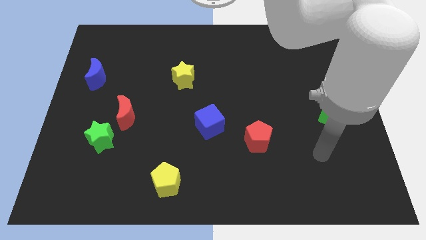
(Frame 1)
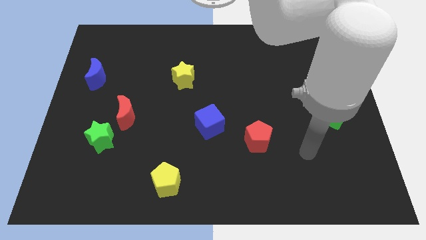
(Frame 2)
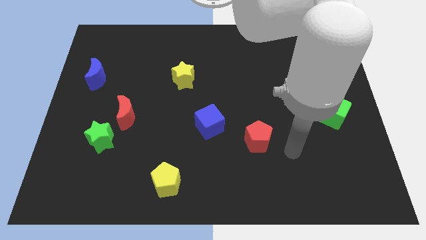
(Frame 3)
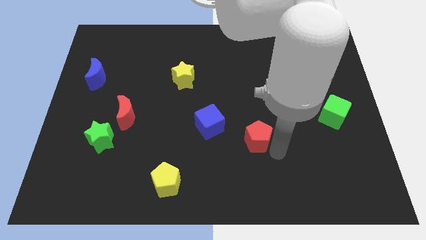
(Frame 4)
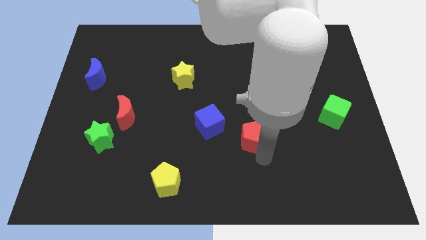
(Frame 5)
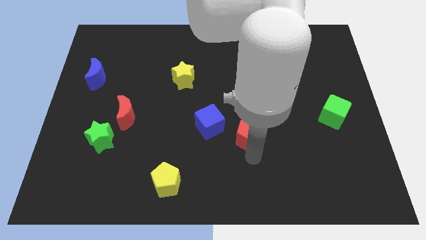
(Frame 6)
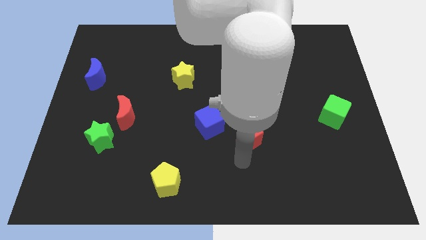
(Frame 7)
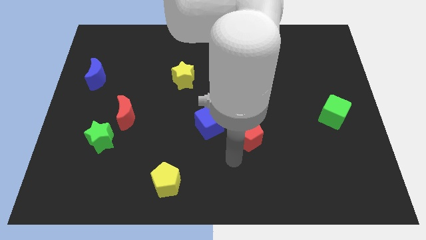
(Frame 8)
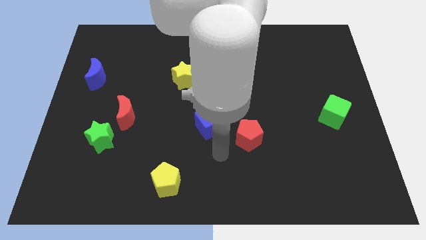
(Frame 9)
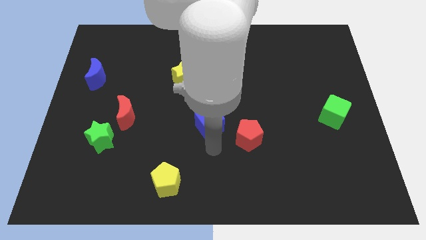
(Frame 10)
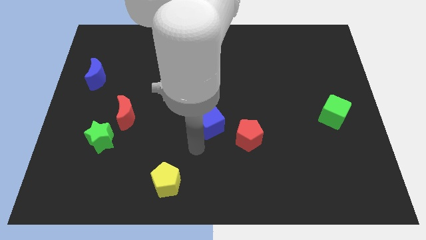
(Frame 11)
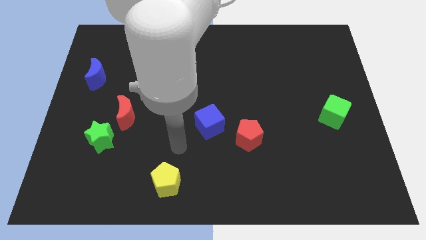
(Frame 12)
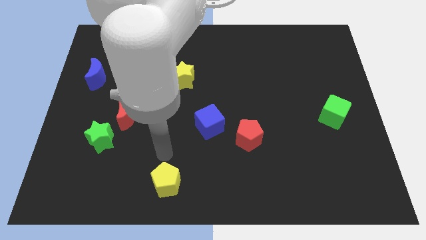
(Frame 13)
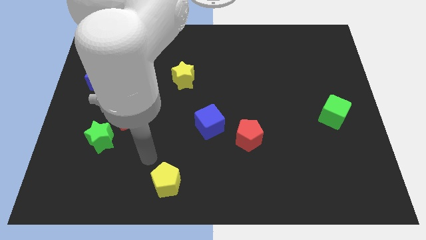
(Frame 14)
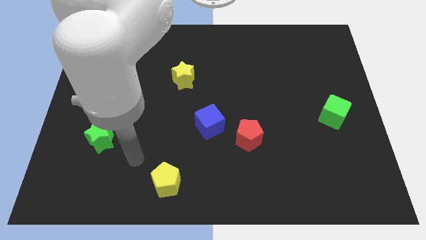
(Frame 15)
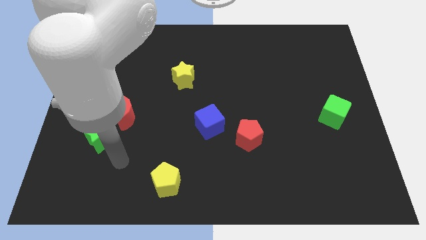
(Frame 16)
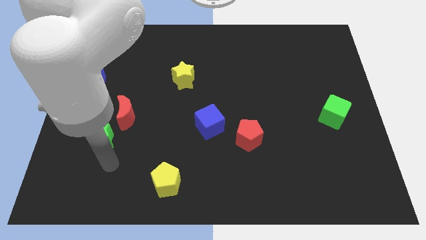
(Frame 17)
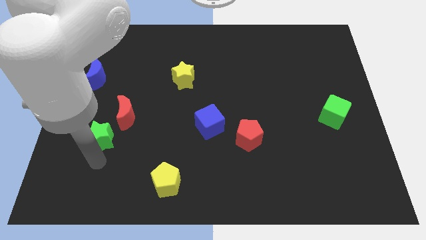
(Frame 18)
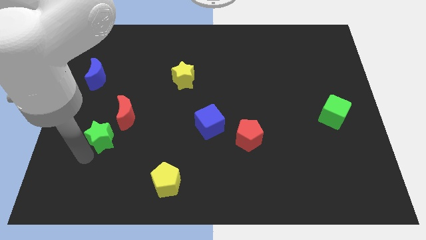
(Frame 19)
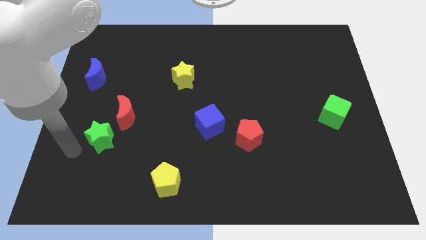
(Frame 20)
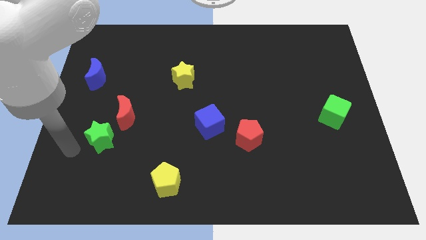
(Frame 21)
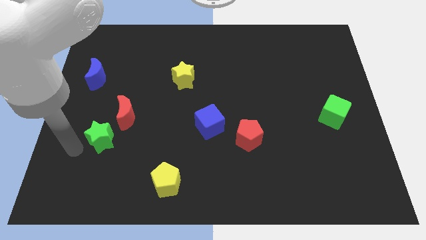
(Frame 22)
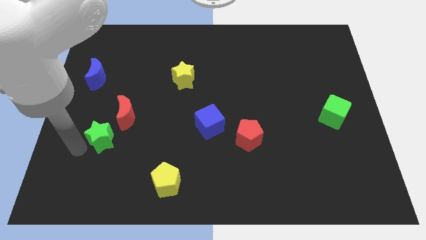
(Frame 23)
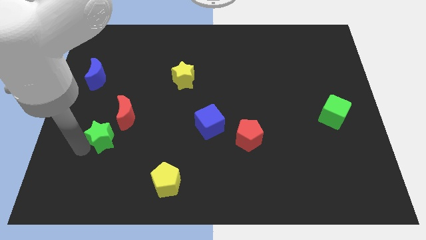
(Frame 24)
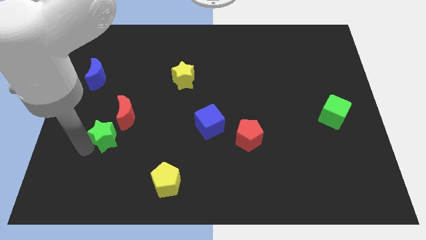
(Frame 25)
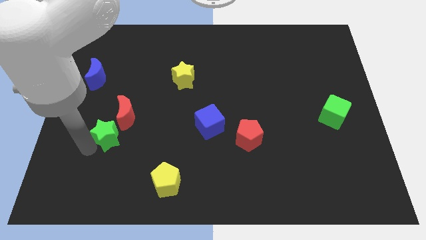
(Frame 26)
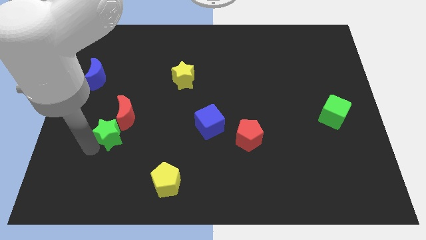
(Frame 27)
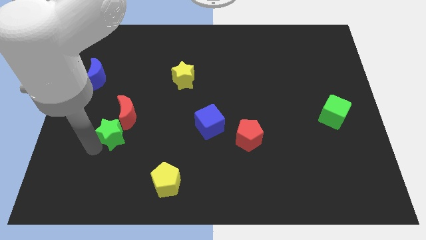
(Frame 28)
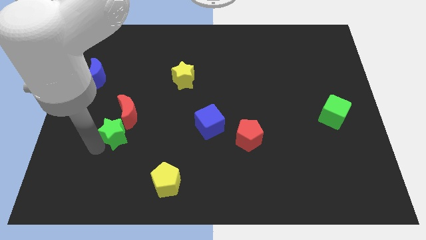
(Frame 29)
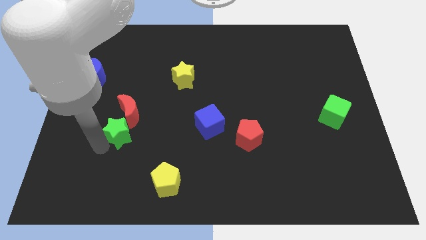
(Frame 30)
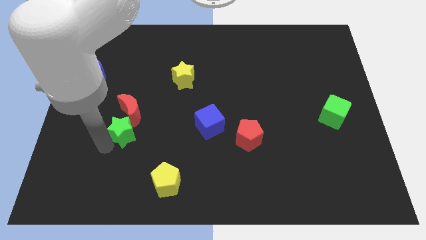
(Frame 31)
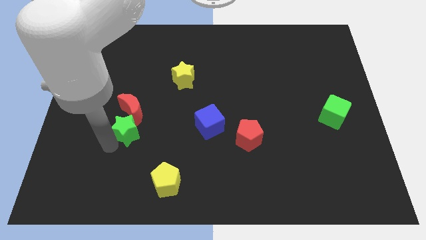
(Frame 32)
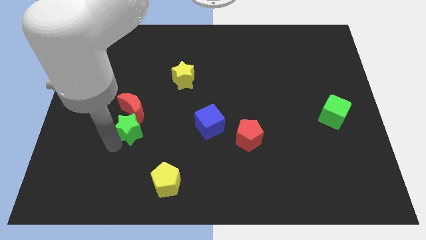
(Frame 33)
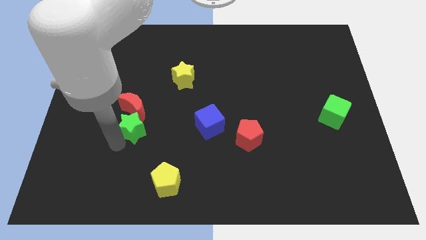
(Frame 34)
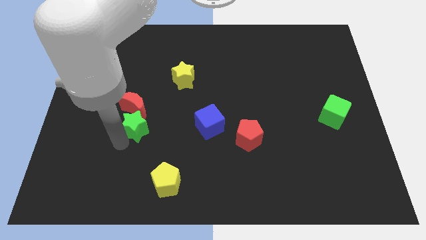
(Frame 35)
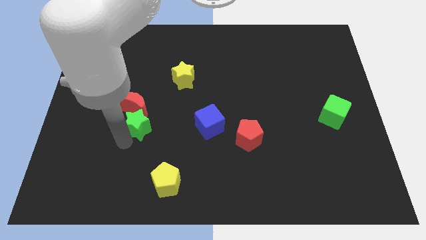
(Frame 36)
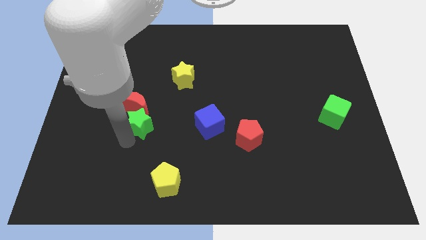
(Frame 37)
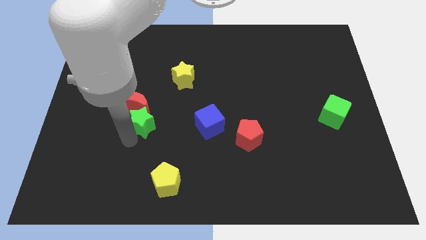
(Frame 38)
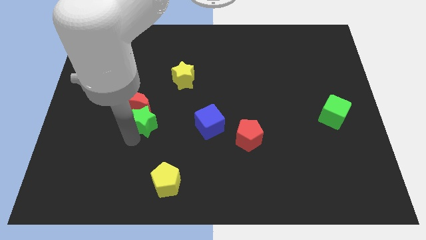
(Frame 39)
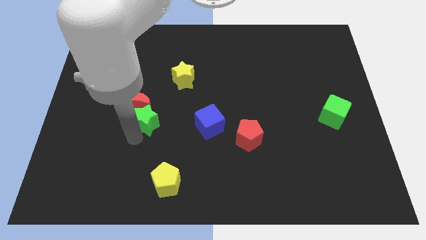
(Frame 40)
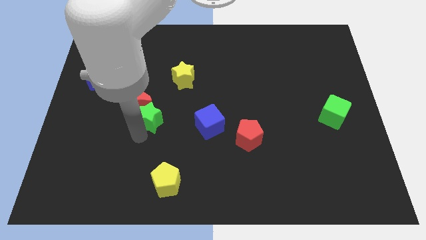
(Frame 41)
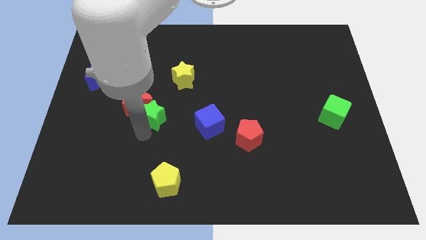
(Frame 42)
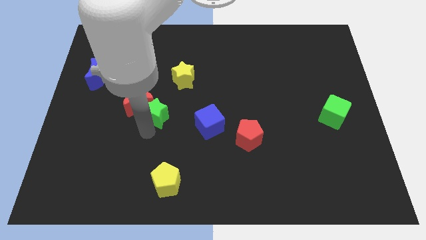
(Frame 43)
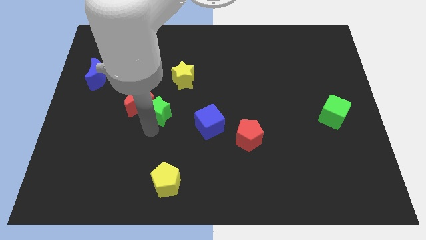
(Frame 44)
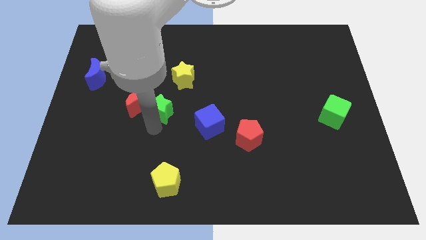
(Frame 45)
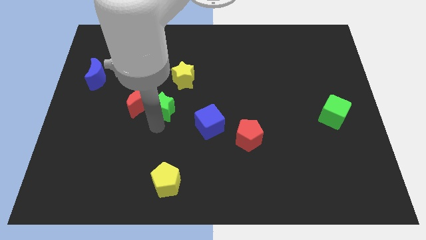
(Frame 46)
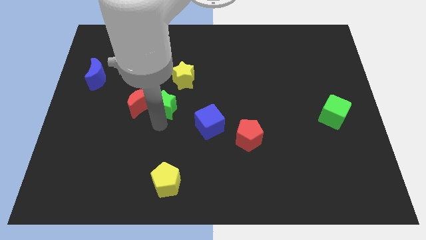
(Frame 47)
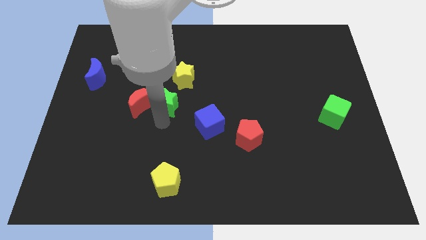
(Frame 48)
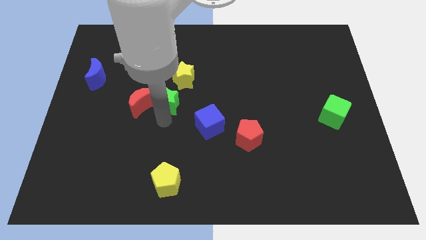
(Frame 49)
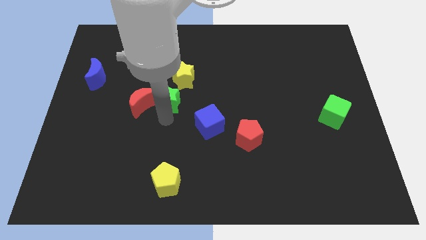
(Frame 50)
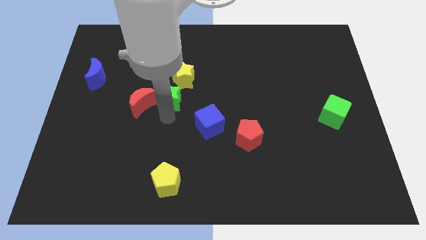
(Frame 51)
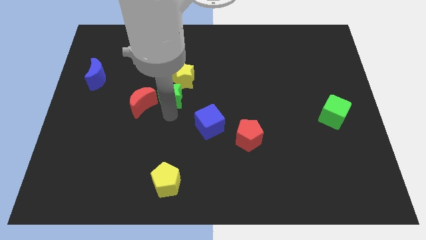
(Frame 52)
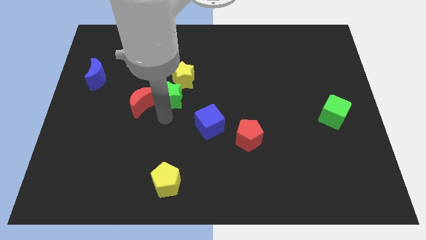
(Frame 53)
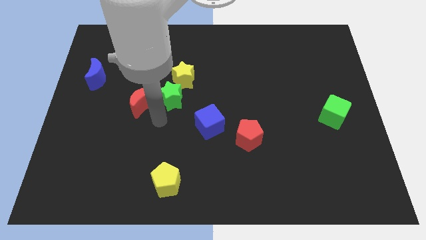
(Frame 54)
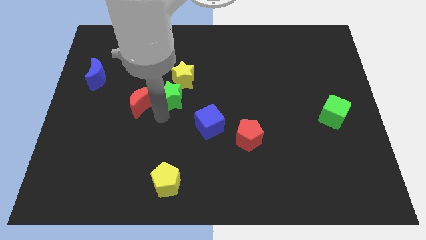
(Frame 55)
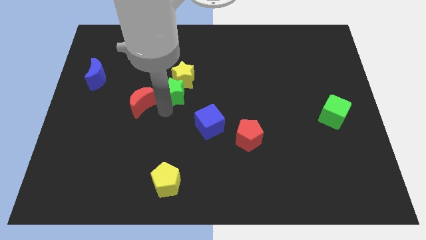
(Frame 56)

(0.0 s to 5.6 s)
put the green star towards the yellow star

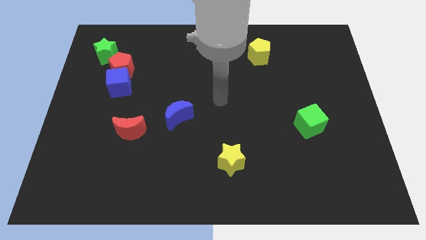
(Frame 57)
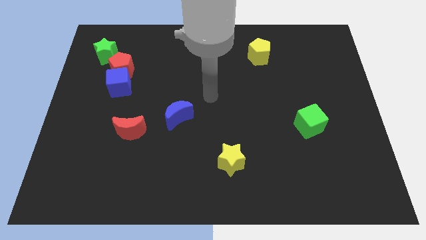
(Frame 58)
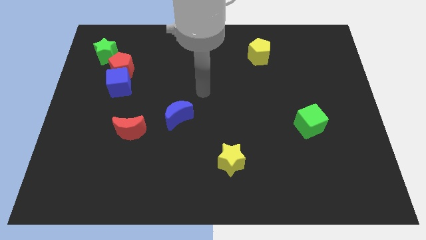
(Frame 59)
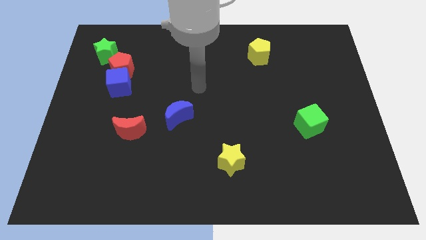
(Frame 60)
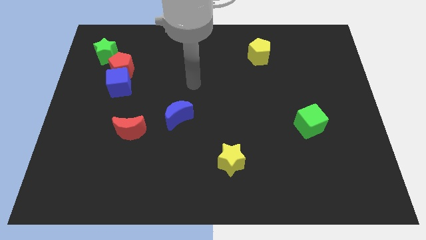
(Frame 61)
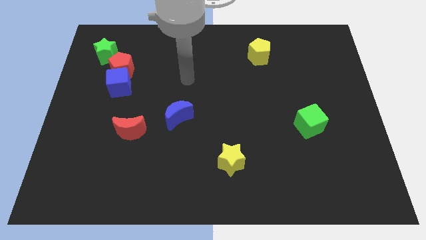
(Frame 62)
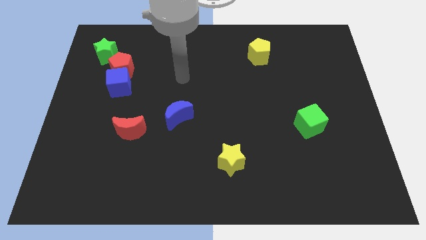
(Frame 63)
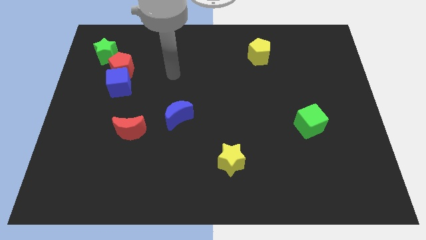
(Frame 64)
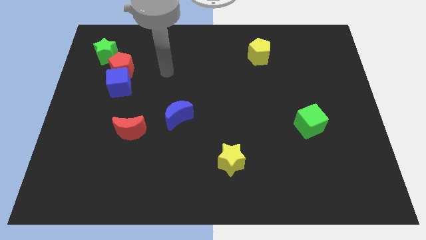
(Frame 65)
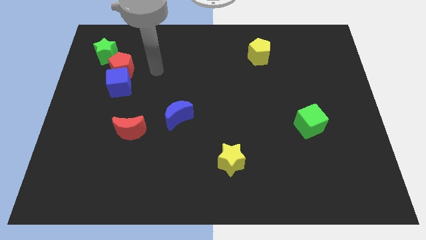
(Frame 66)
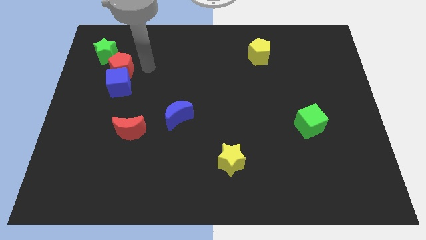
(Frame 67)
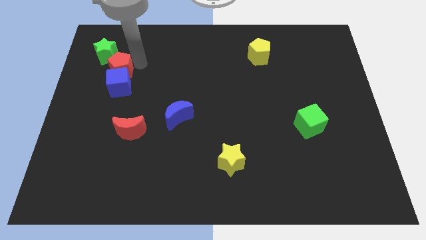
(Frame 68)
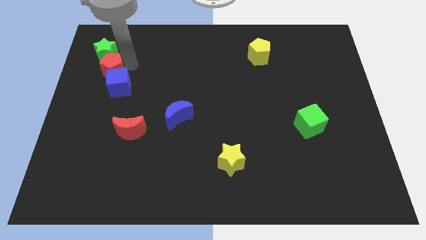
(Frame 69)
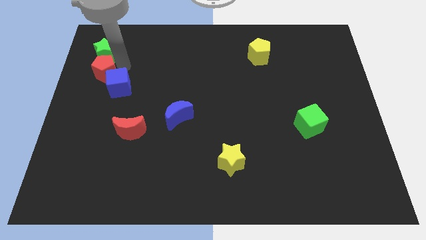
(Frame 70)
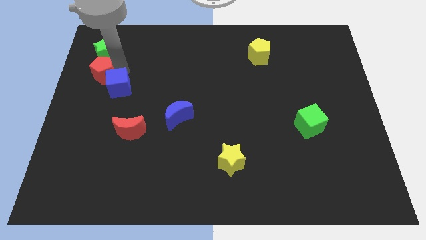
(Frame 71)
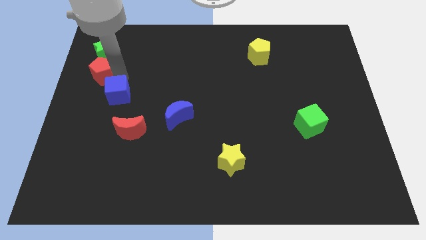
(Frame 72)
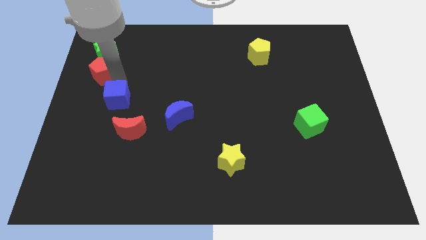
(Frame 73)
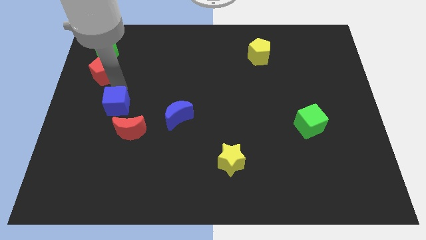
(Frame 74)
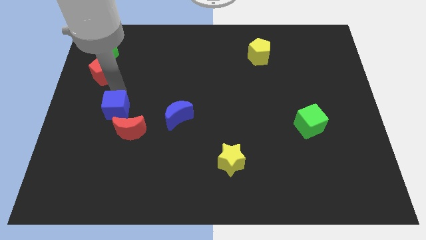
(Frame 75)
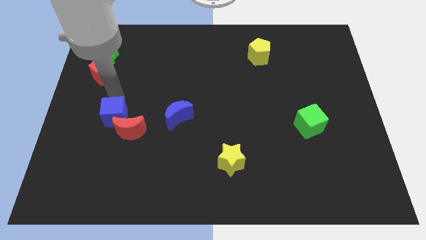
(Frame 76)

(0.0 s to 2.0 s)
push the blue cube towards the red moon
